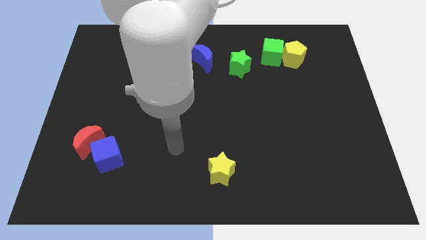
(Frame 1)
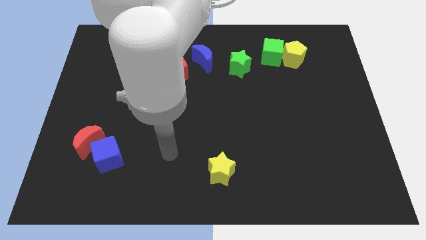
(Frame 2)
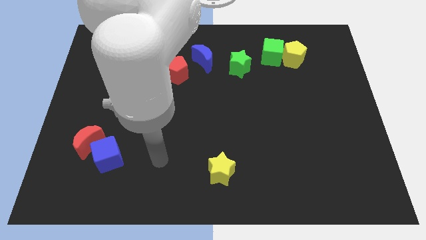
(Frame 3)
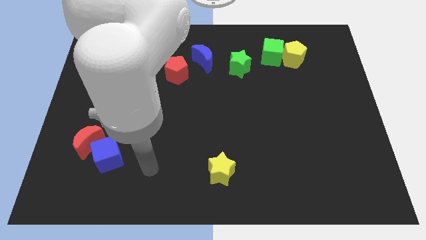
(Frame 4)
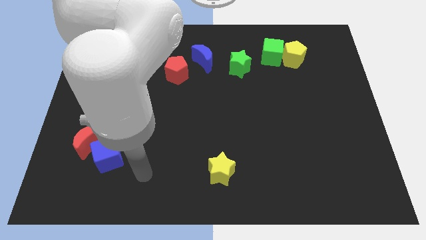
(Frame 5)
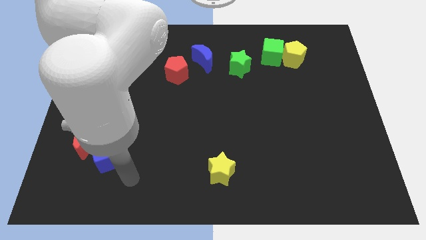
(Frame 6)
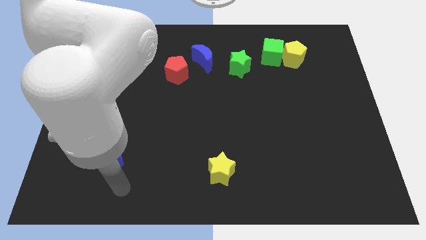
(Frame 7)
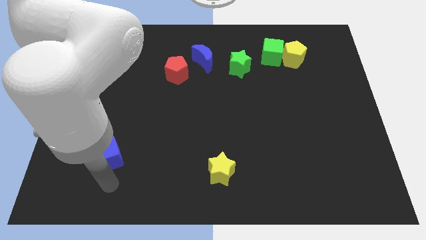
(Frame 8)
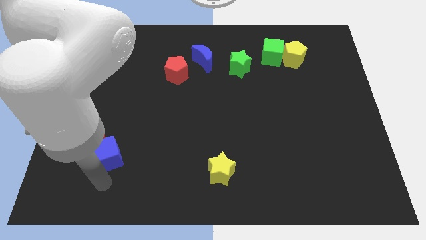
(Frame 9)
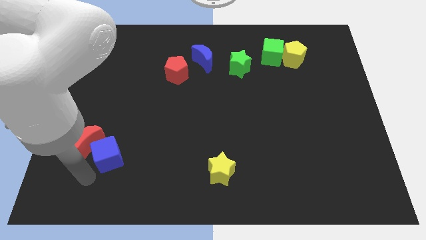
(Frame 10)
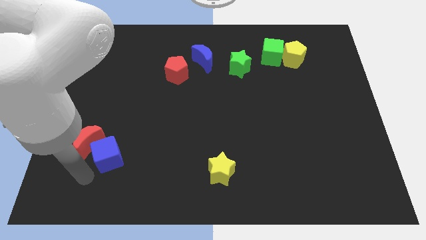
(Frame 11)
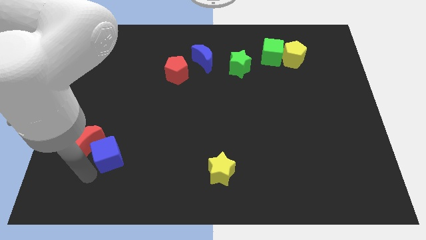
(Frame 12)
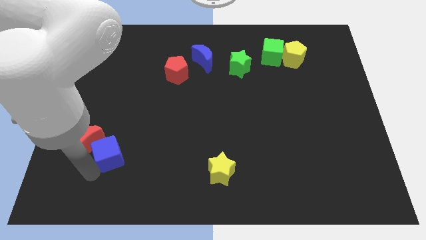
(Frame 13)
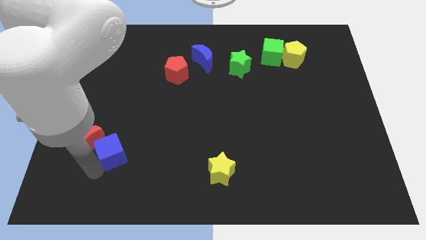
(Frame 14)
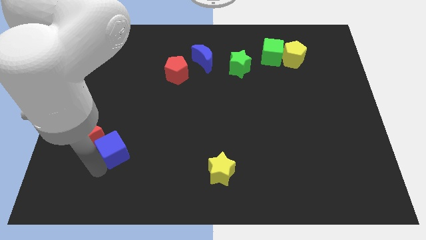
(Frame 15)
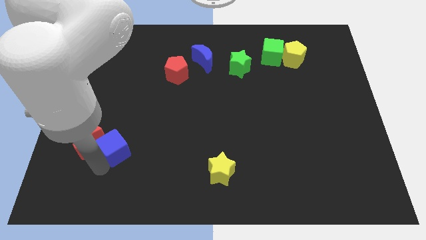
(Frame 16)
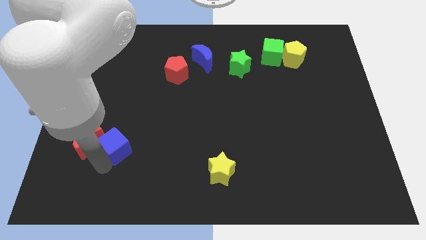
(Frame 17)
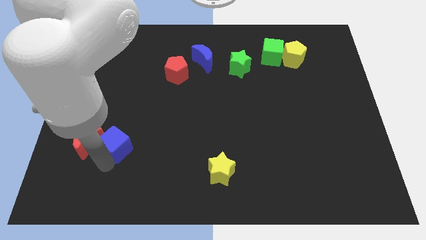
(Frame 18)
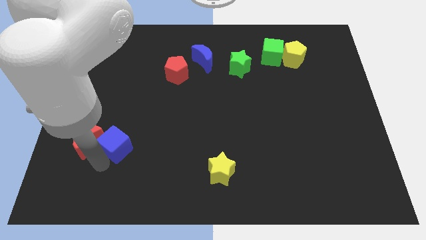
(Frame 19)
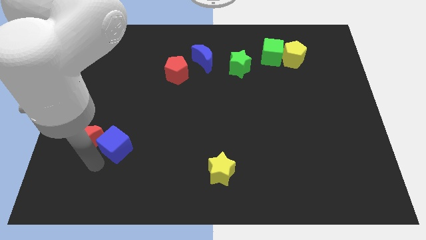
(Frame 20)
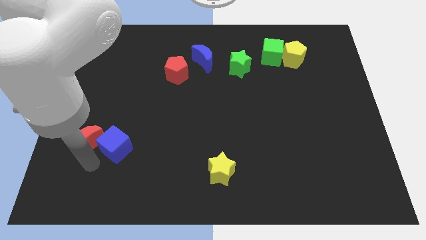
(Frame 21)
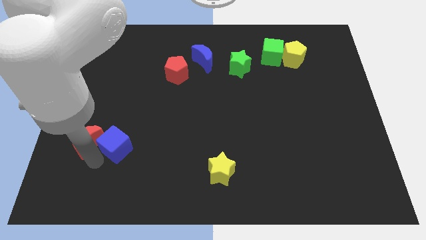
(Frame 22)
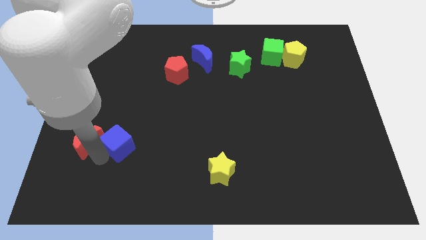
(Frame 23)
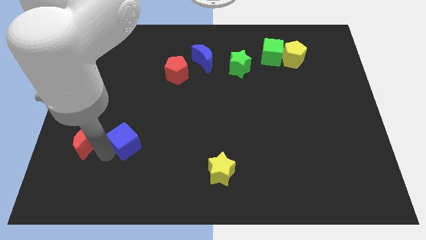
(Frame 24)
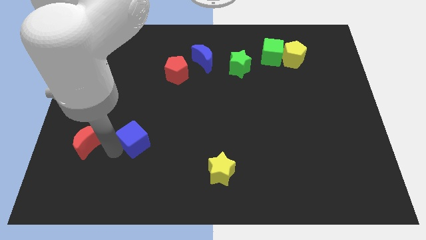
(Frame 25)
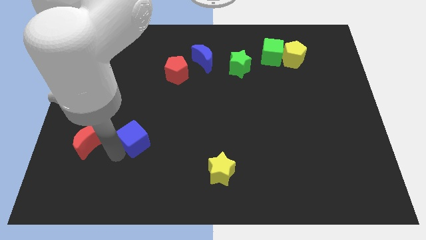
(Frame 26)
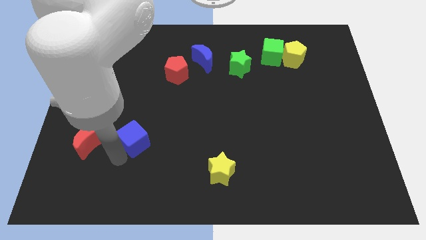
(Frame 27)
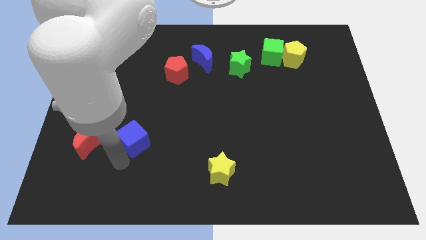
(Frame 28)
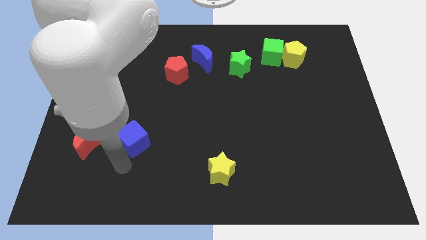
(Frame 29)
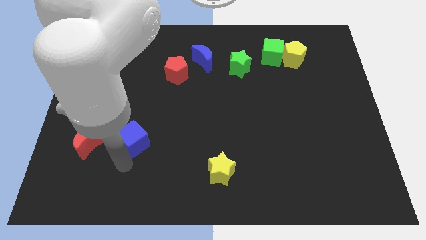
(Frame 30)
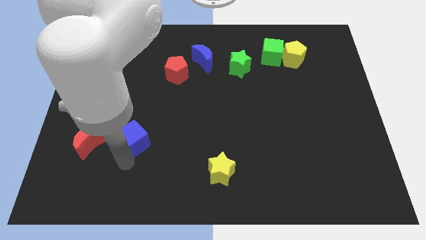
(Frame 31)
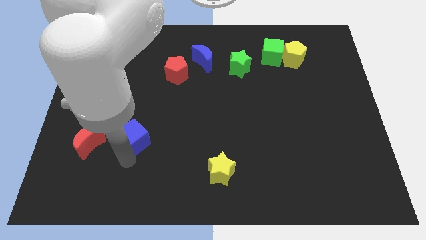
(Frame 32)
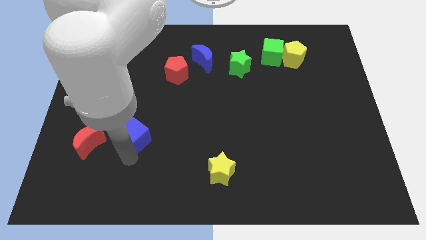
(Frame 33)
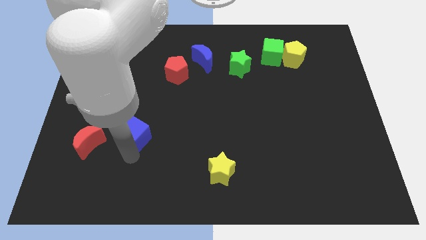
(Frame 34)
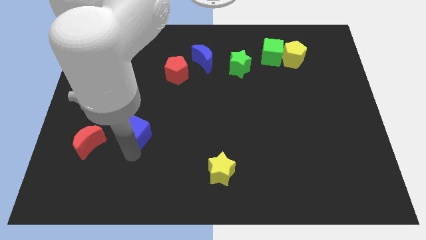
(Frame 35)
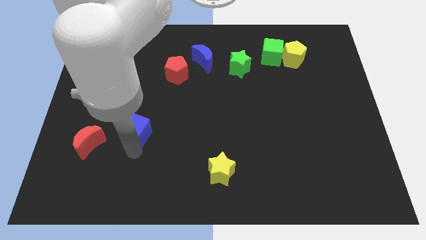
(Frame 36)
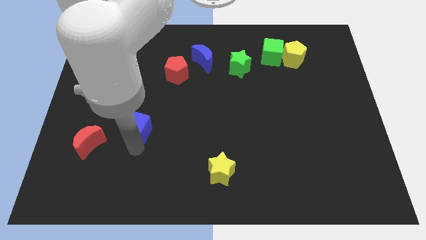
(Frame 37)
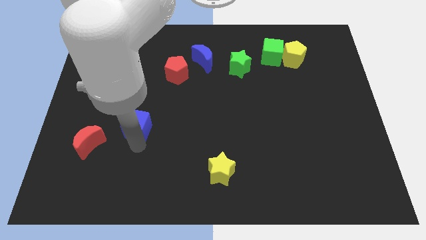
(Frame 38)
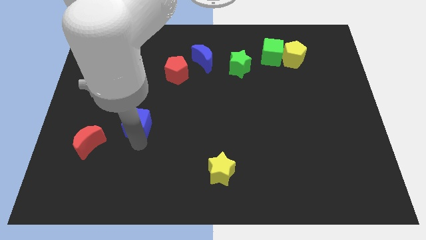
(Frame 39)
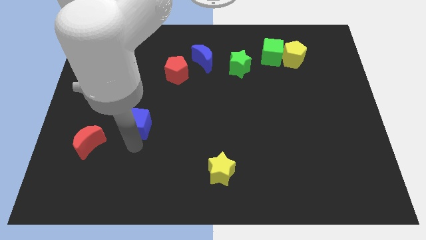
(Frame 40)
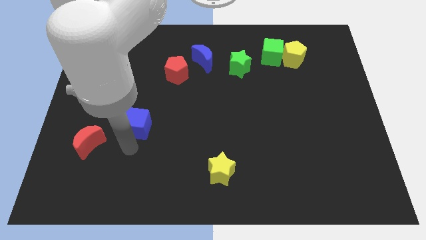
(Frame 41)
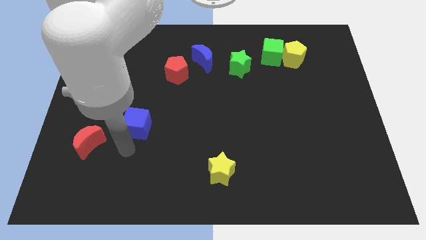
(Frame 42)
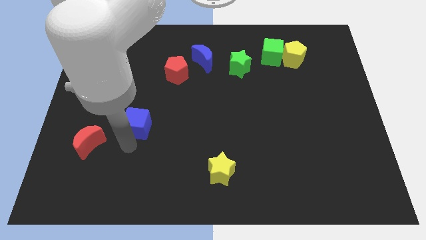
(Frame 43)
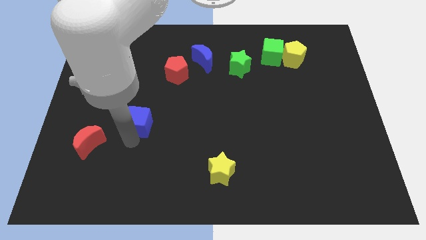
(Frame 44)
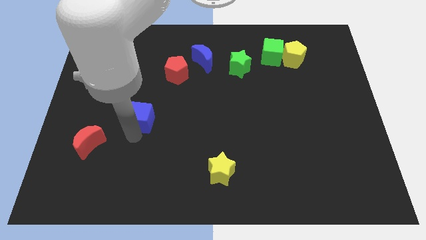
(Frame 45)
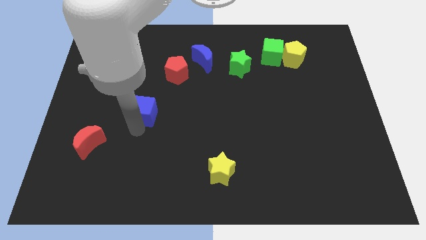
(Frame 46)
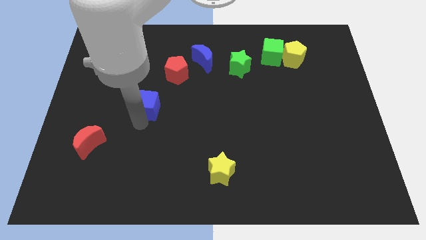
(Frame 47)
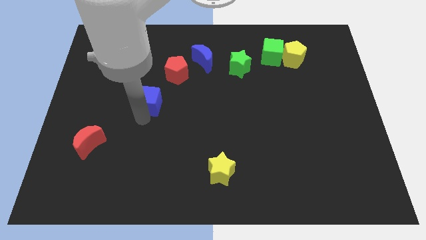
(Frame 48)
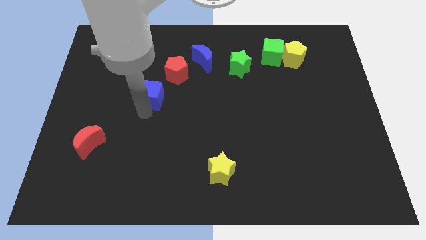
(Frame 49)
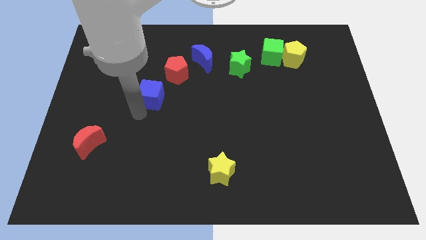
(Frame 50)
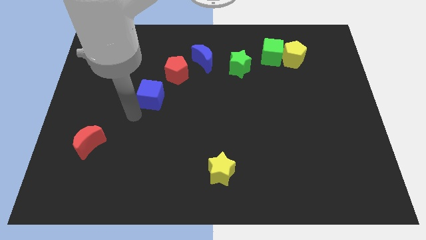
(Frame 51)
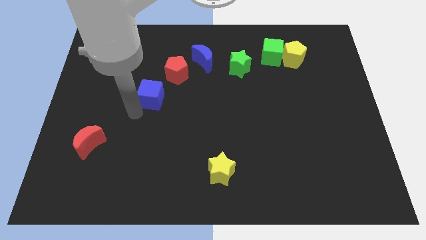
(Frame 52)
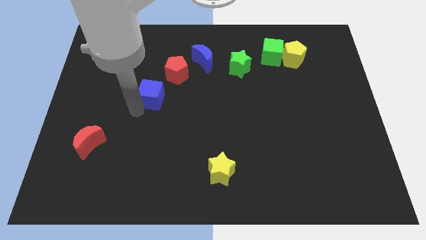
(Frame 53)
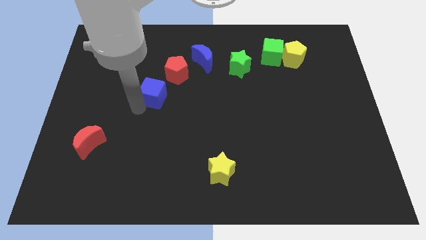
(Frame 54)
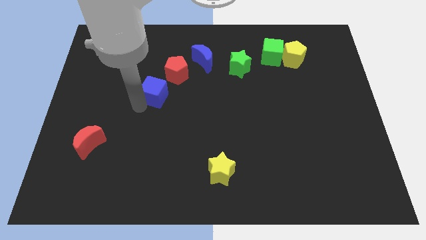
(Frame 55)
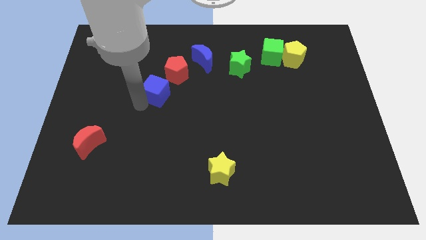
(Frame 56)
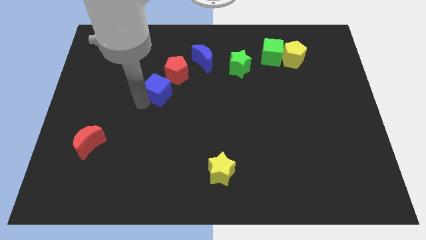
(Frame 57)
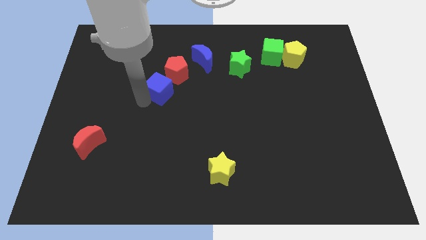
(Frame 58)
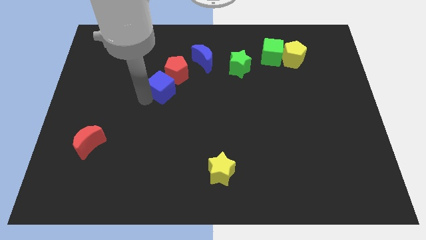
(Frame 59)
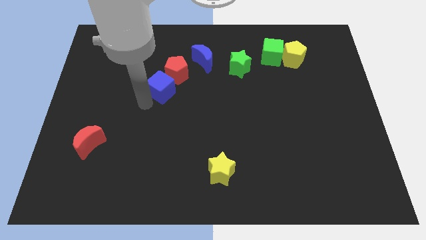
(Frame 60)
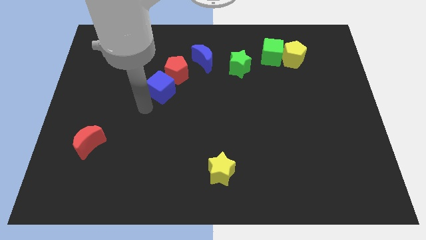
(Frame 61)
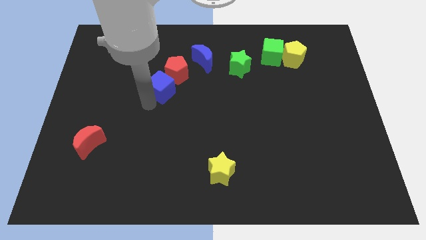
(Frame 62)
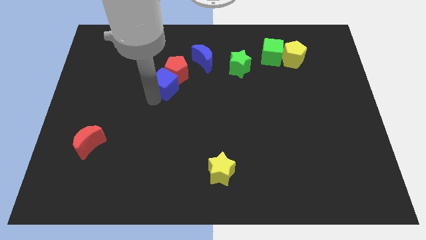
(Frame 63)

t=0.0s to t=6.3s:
push the blue cube next to the red pentagon
